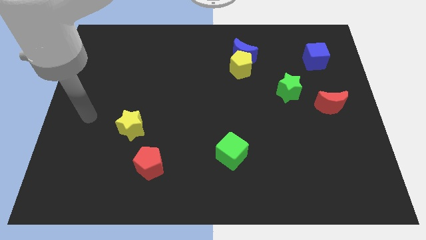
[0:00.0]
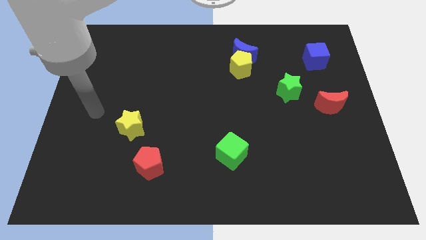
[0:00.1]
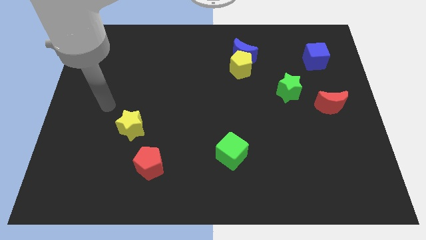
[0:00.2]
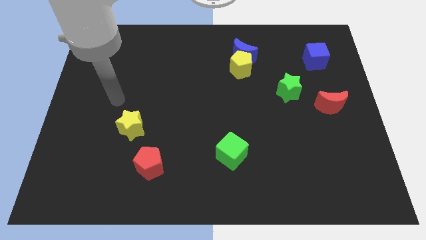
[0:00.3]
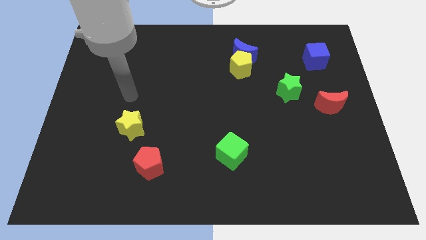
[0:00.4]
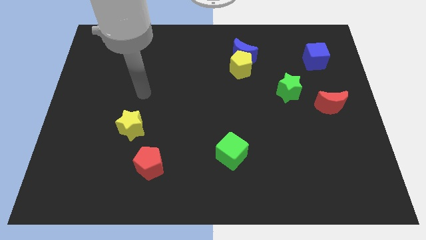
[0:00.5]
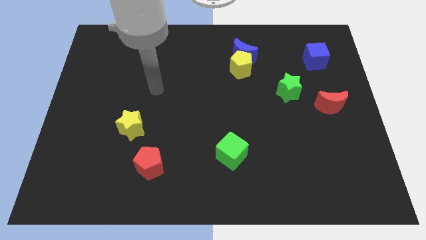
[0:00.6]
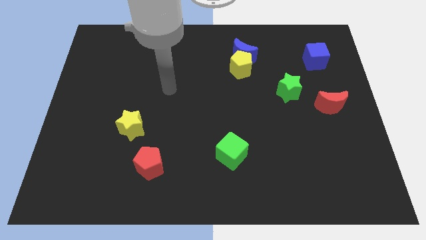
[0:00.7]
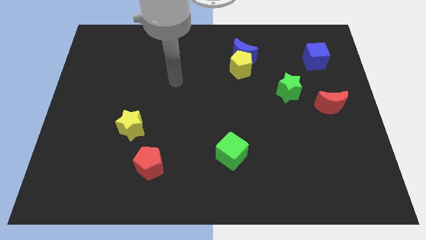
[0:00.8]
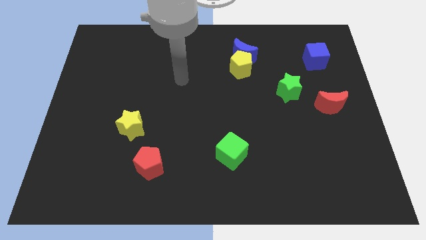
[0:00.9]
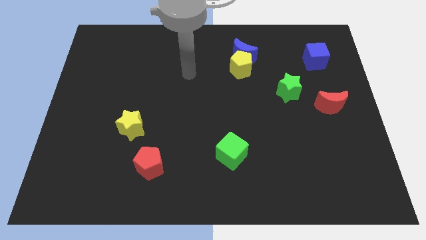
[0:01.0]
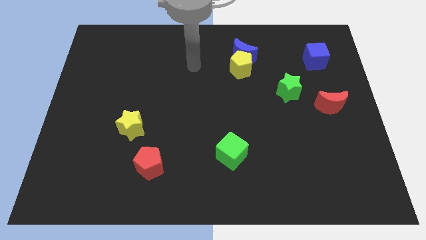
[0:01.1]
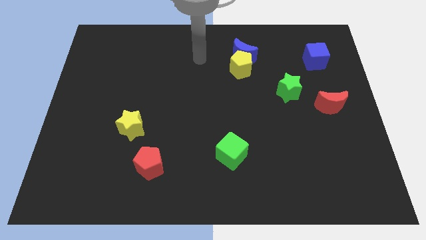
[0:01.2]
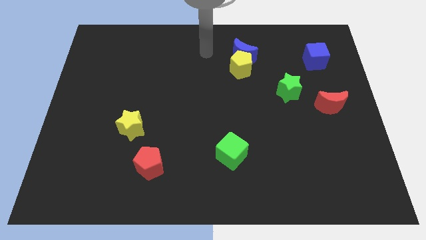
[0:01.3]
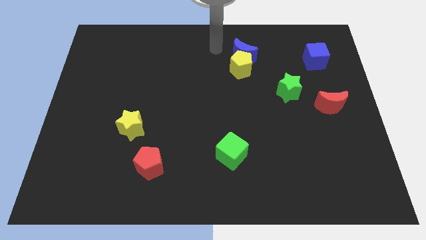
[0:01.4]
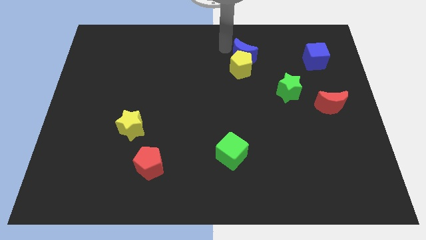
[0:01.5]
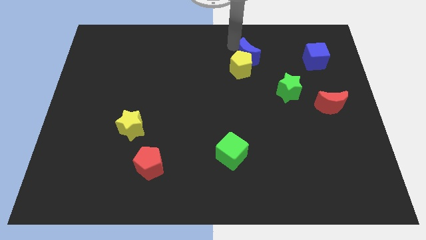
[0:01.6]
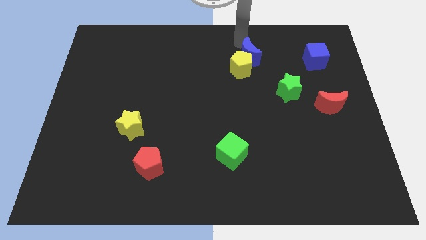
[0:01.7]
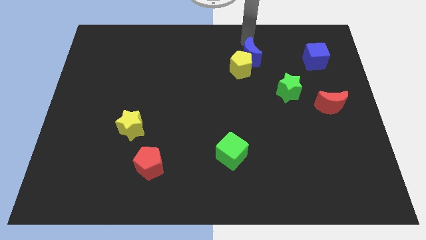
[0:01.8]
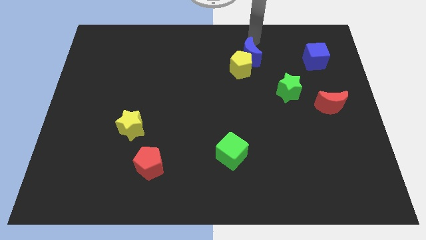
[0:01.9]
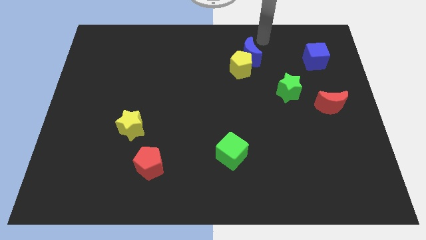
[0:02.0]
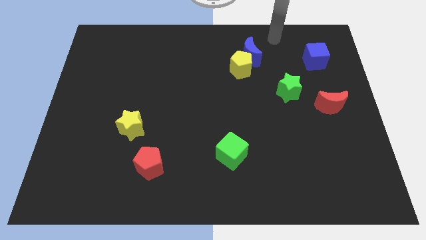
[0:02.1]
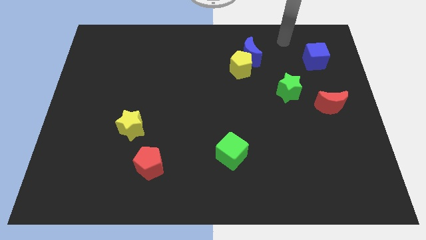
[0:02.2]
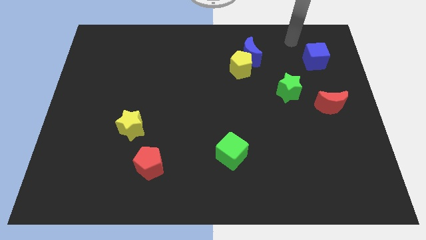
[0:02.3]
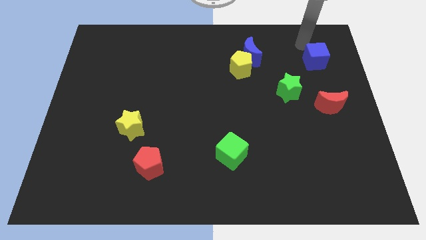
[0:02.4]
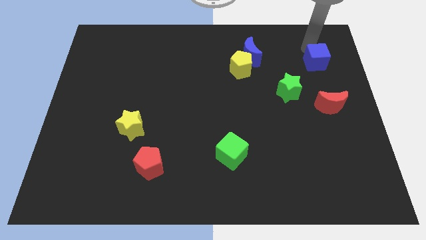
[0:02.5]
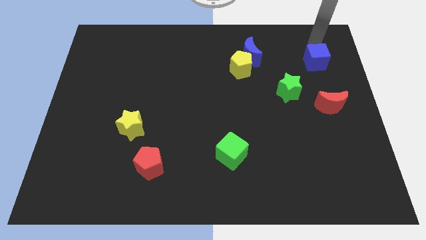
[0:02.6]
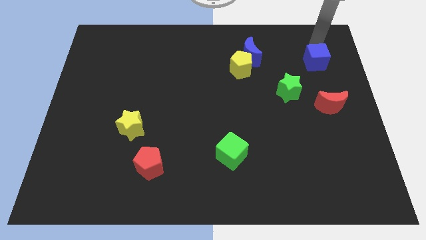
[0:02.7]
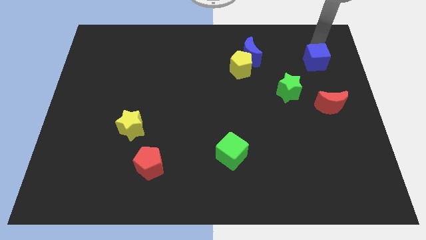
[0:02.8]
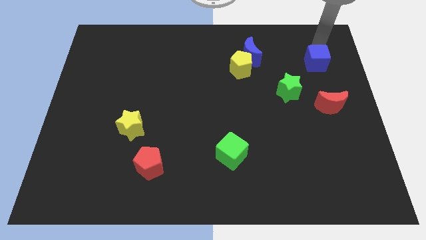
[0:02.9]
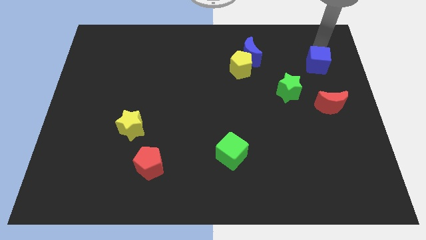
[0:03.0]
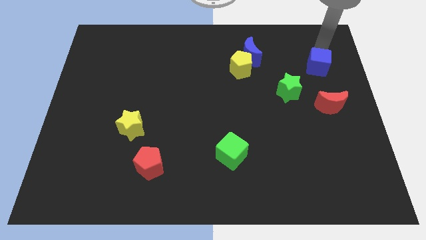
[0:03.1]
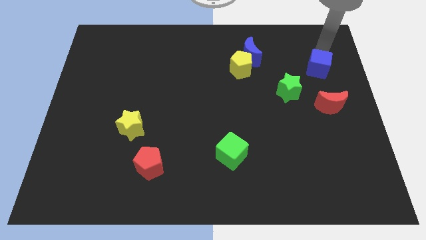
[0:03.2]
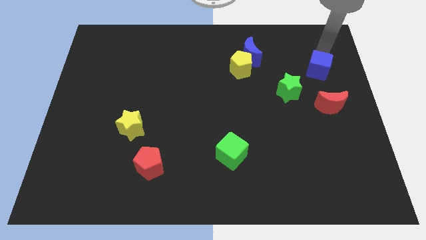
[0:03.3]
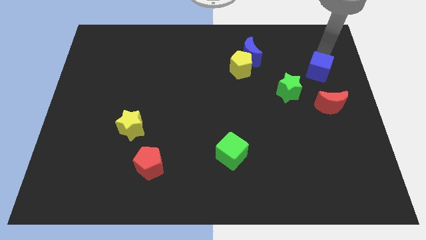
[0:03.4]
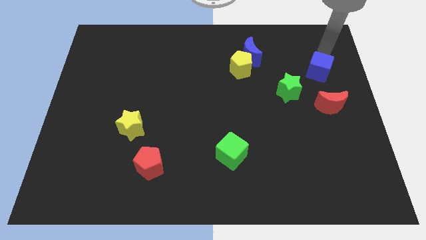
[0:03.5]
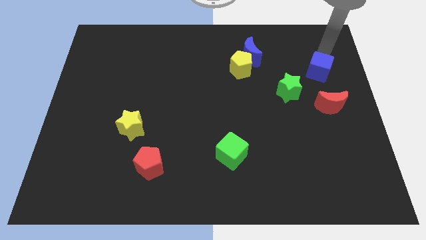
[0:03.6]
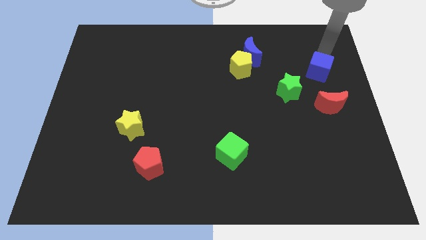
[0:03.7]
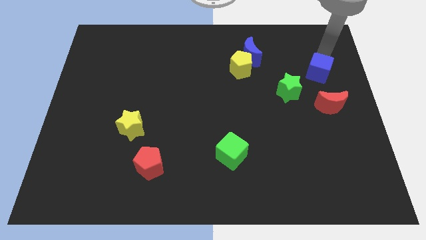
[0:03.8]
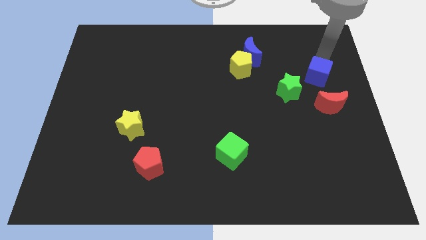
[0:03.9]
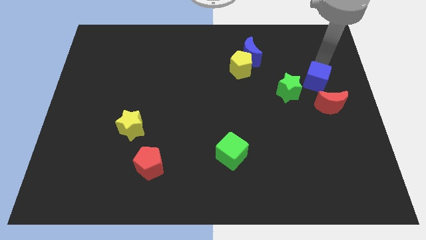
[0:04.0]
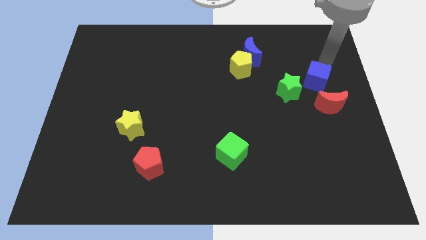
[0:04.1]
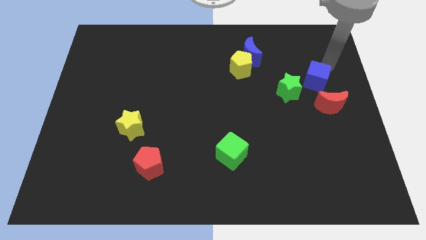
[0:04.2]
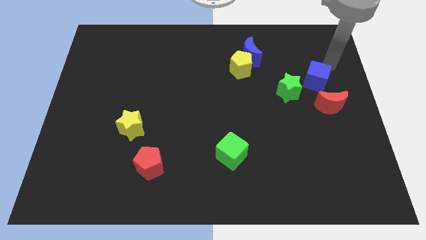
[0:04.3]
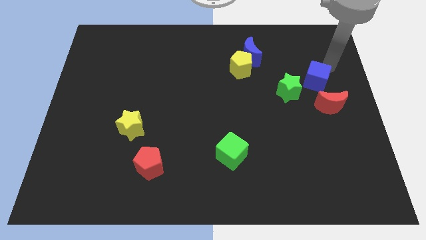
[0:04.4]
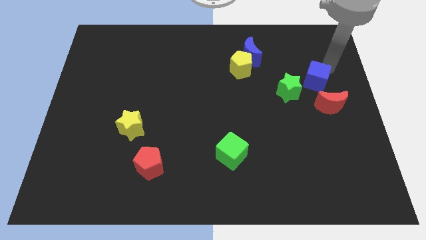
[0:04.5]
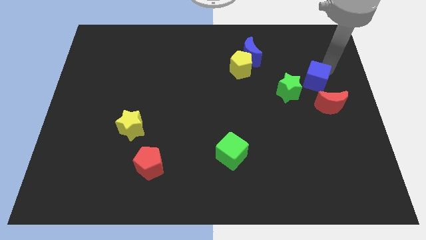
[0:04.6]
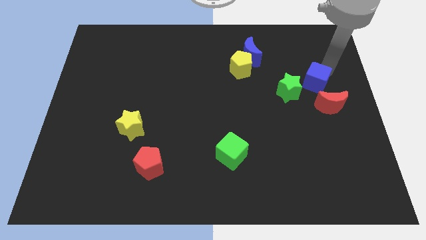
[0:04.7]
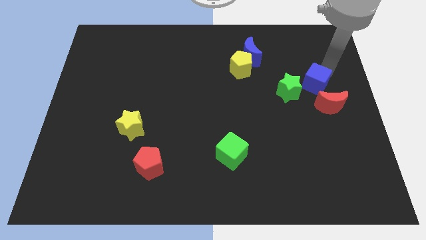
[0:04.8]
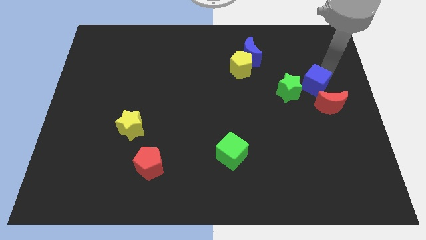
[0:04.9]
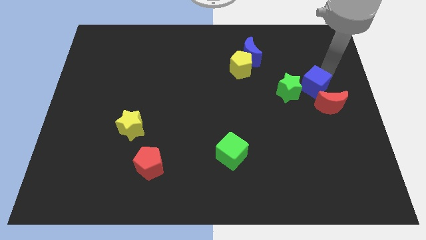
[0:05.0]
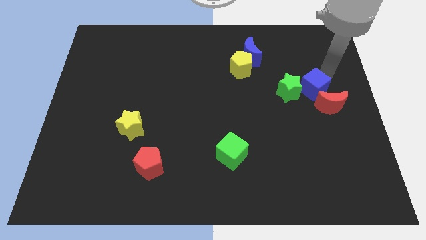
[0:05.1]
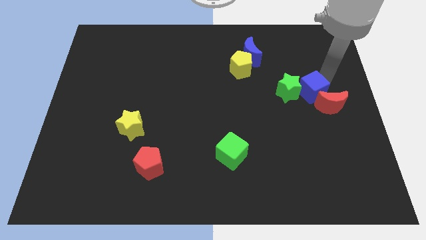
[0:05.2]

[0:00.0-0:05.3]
move the blue cube to the left of the red moon

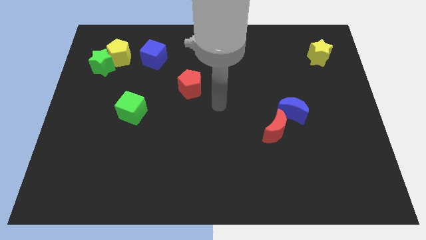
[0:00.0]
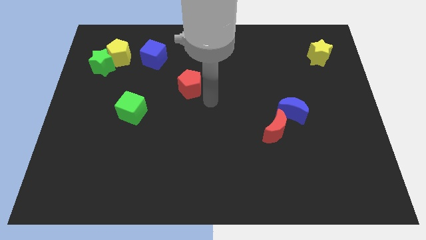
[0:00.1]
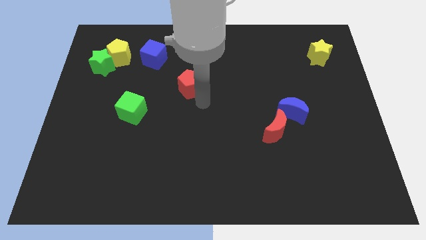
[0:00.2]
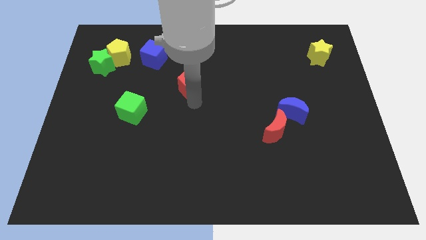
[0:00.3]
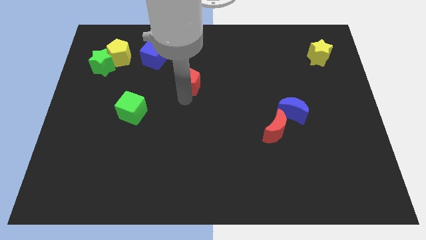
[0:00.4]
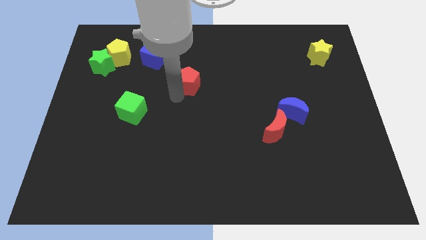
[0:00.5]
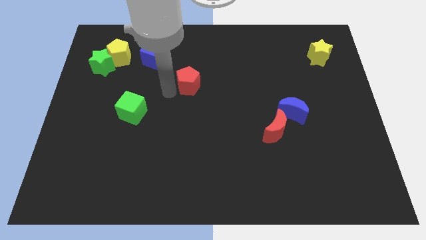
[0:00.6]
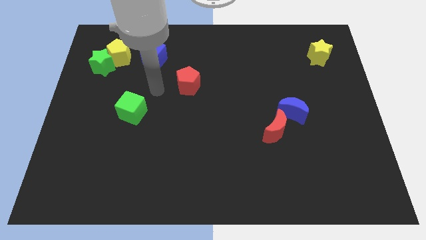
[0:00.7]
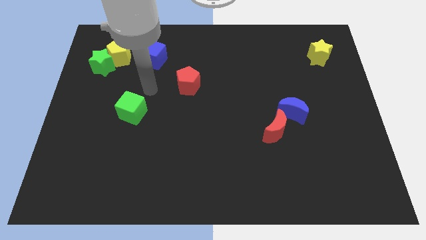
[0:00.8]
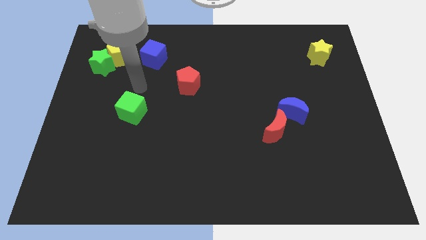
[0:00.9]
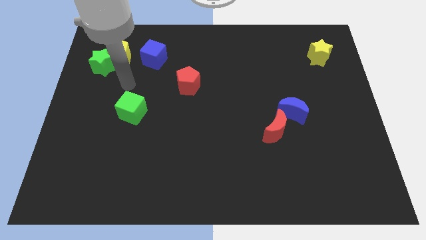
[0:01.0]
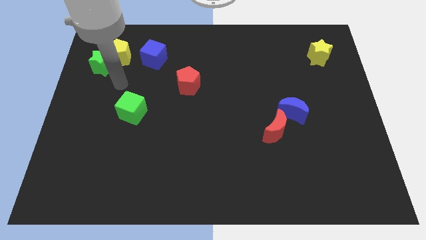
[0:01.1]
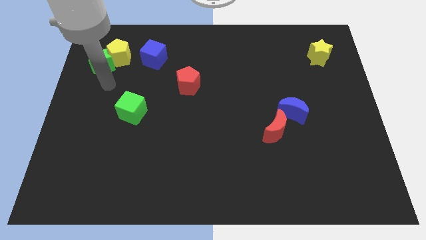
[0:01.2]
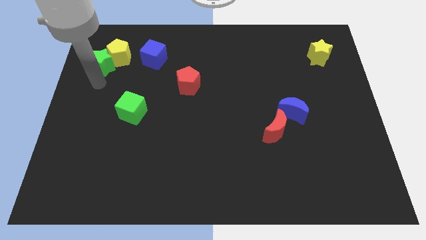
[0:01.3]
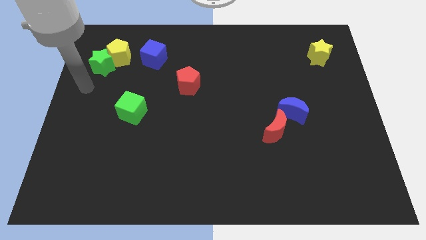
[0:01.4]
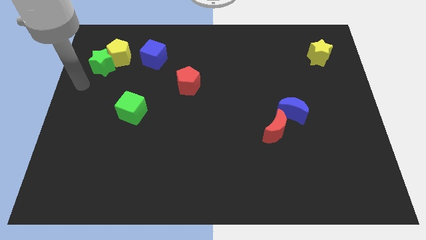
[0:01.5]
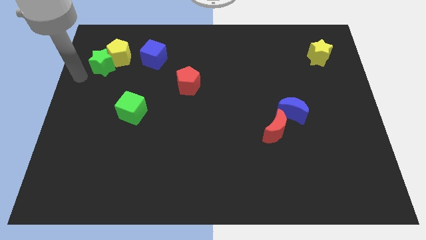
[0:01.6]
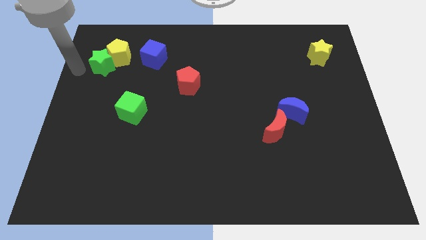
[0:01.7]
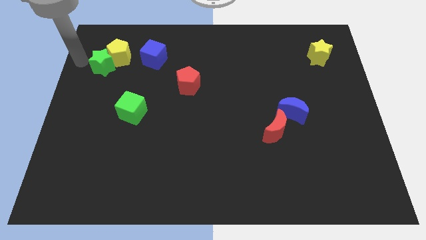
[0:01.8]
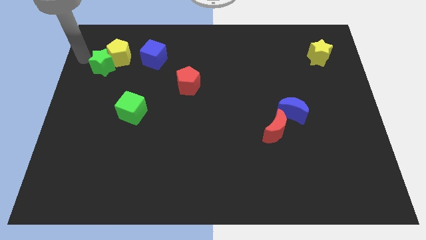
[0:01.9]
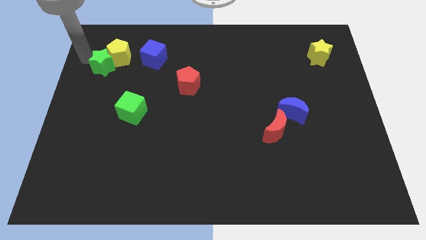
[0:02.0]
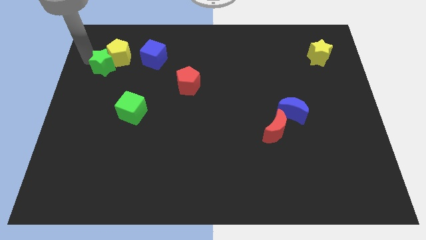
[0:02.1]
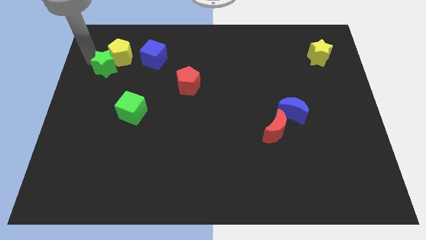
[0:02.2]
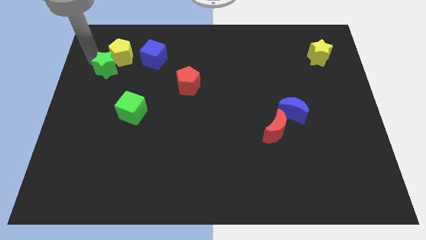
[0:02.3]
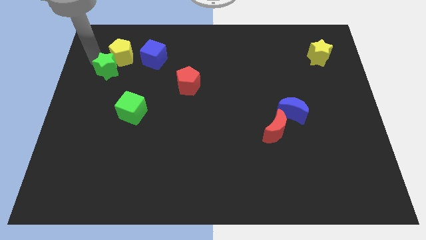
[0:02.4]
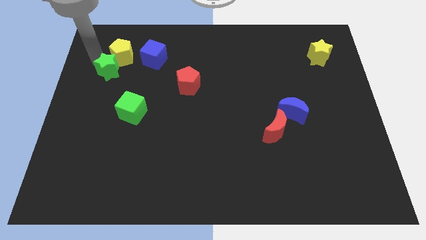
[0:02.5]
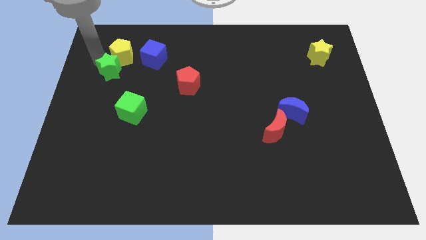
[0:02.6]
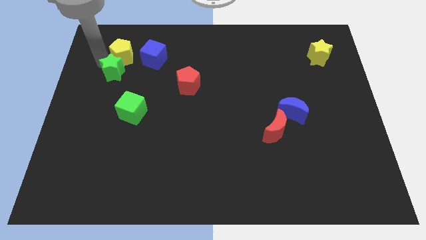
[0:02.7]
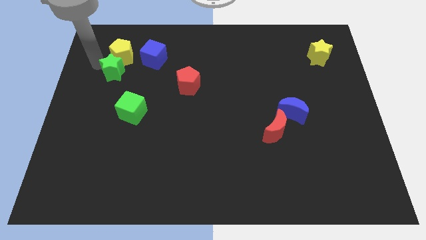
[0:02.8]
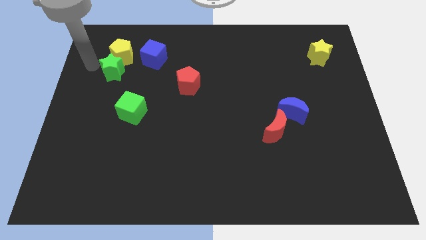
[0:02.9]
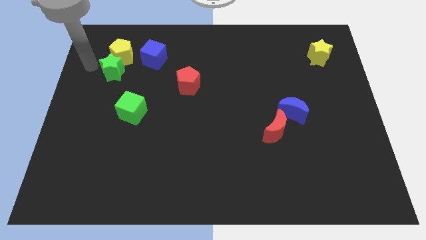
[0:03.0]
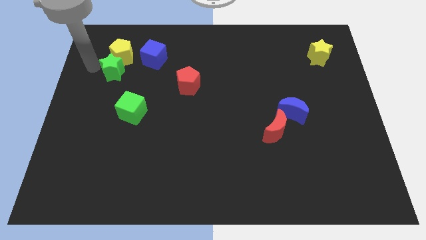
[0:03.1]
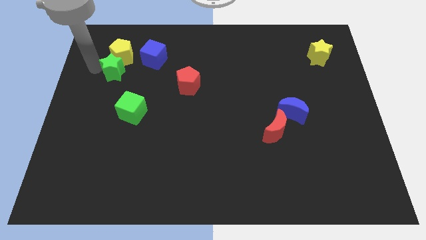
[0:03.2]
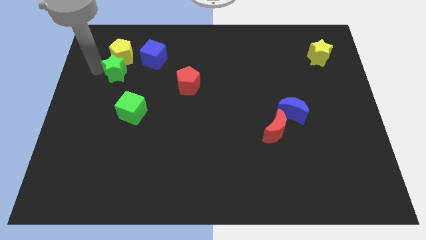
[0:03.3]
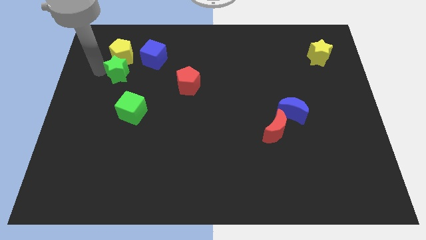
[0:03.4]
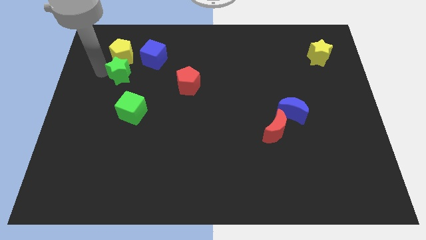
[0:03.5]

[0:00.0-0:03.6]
move the green star to the top of the green cube
